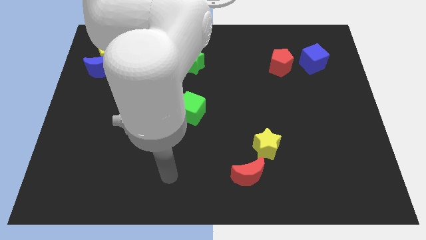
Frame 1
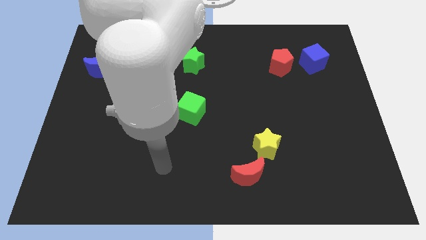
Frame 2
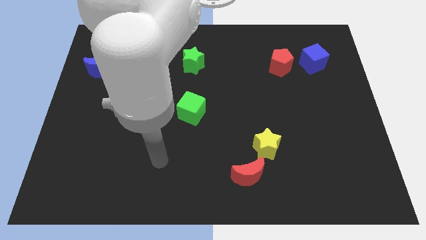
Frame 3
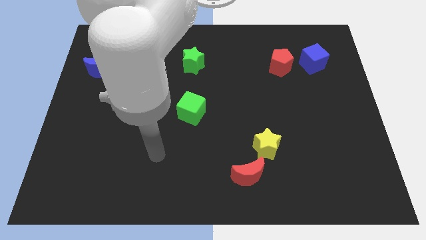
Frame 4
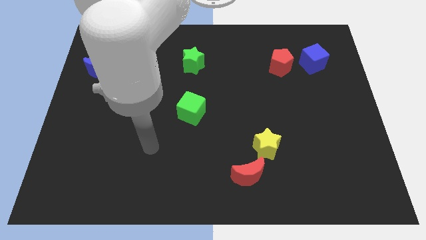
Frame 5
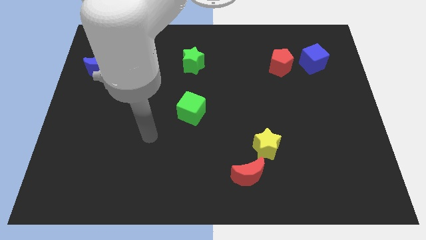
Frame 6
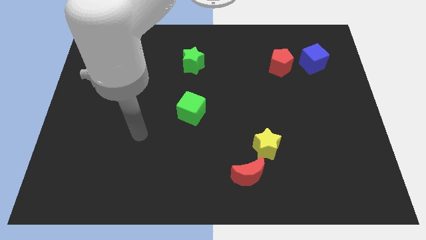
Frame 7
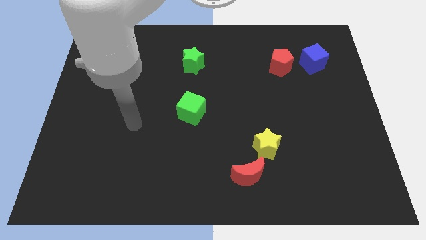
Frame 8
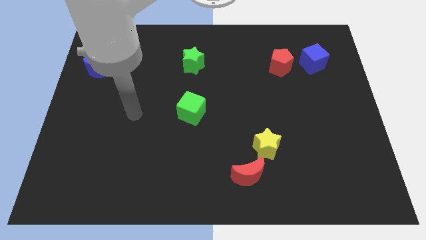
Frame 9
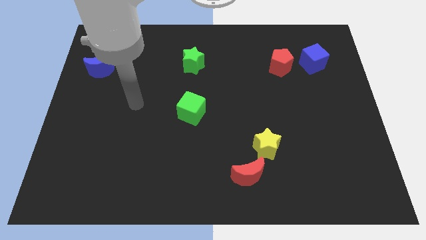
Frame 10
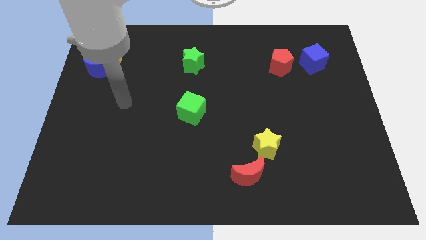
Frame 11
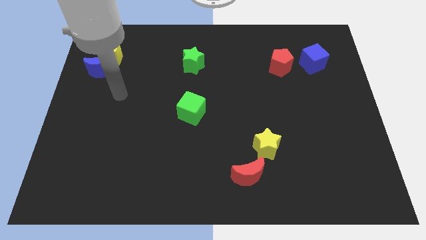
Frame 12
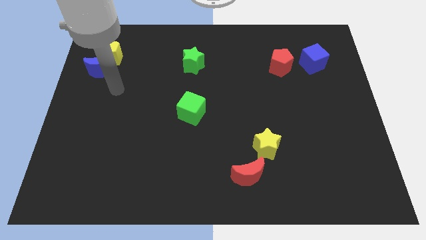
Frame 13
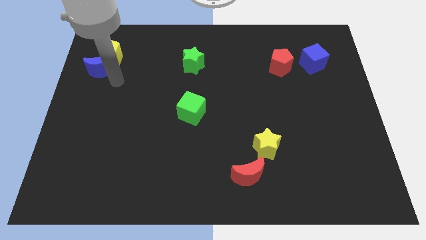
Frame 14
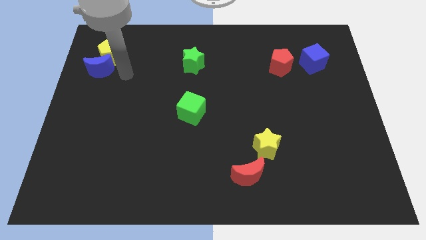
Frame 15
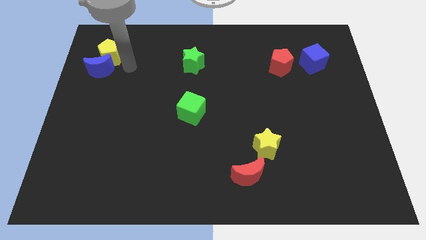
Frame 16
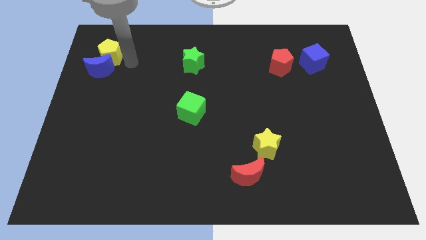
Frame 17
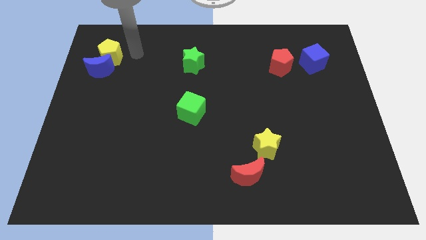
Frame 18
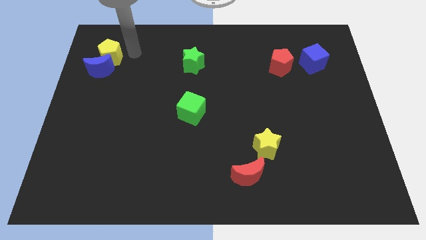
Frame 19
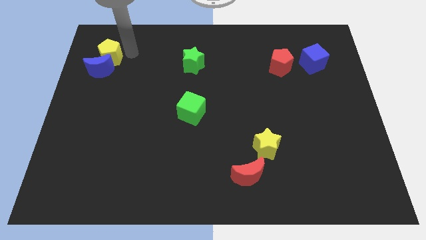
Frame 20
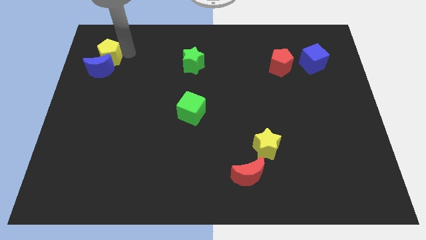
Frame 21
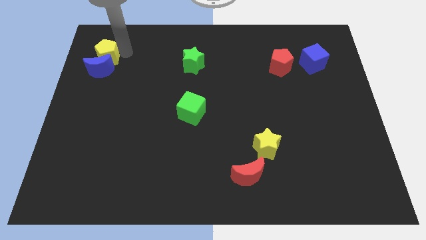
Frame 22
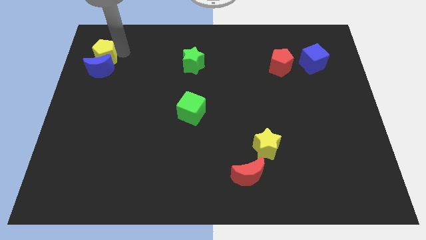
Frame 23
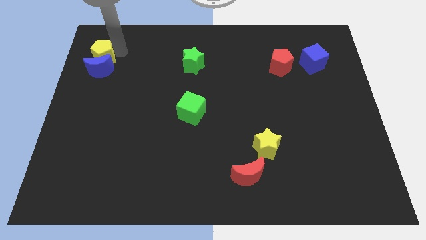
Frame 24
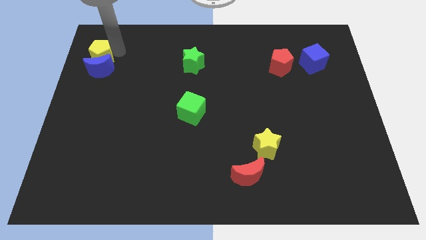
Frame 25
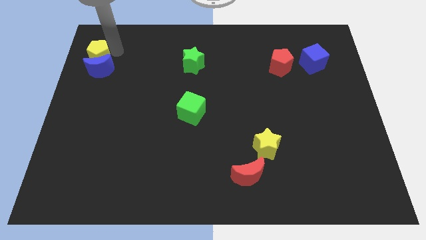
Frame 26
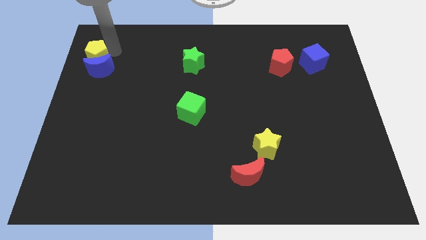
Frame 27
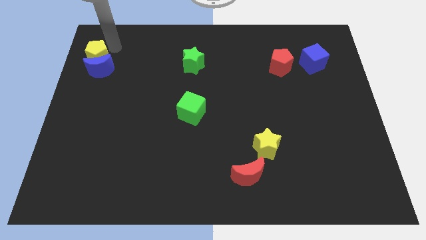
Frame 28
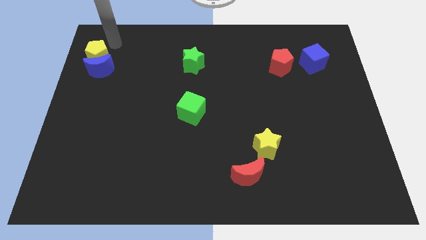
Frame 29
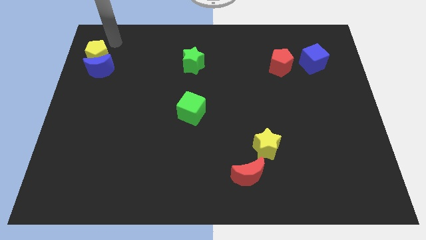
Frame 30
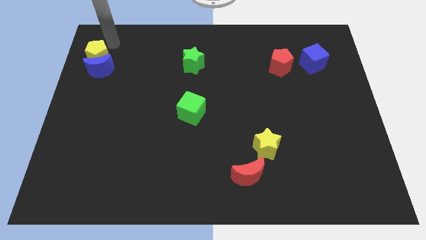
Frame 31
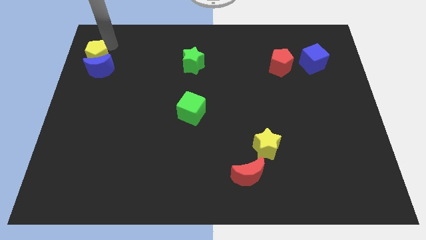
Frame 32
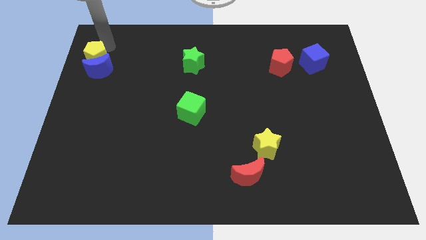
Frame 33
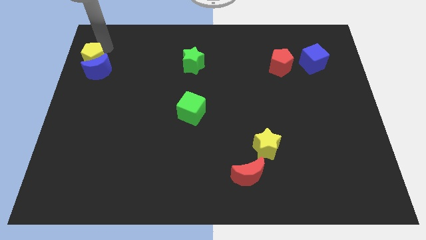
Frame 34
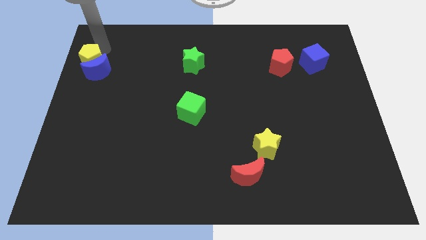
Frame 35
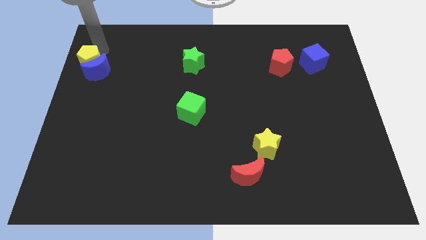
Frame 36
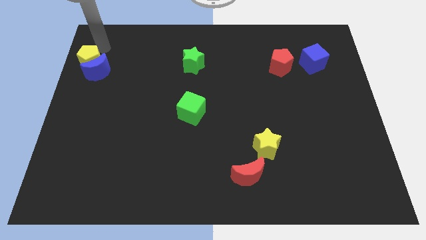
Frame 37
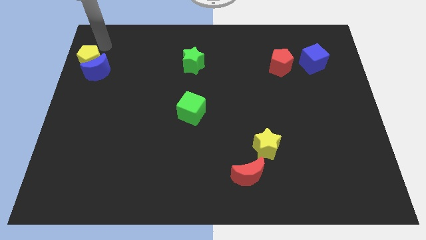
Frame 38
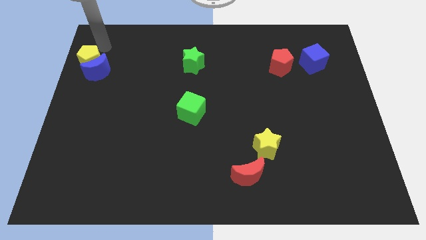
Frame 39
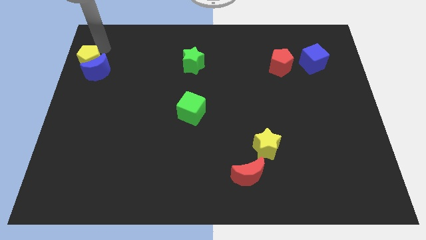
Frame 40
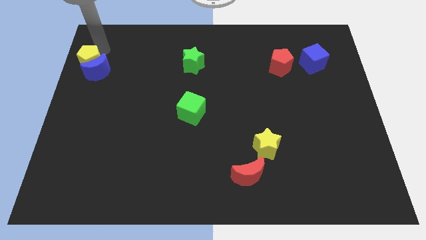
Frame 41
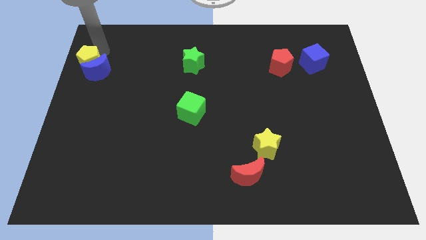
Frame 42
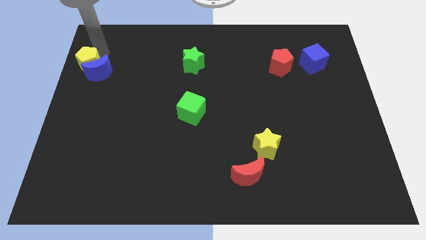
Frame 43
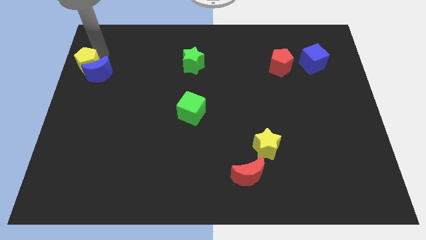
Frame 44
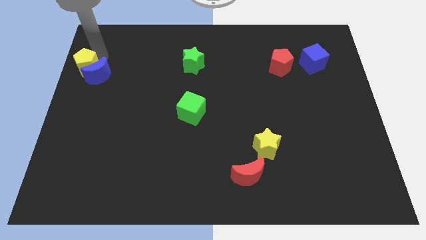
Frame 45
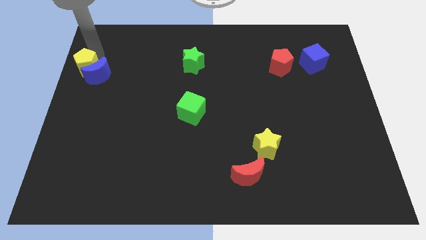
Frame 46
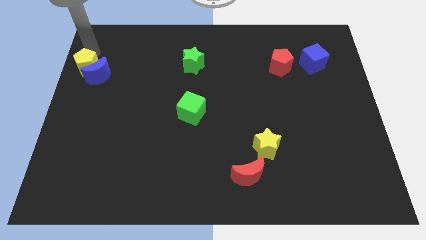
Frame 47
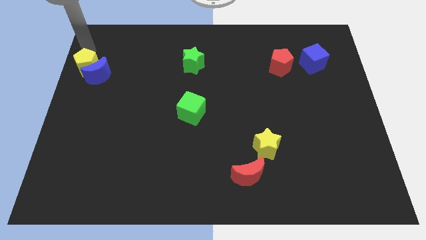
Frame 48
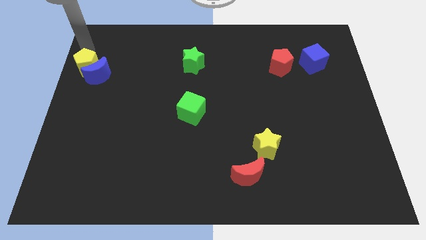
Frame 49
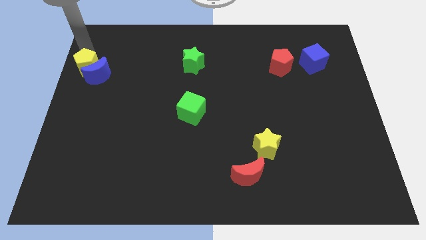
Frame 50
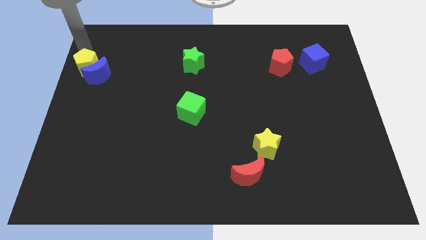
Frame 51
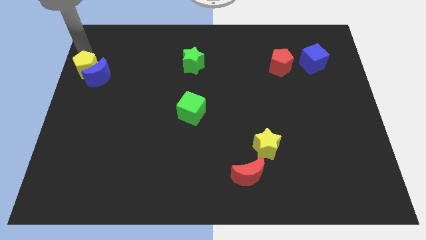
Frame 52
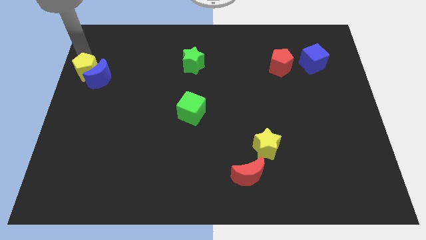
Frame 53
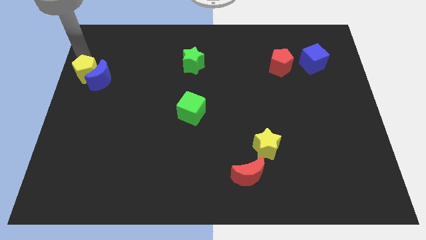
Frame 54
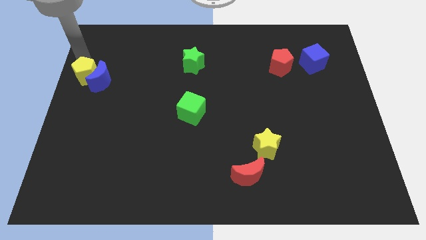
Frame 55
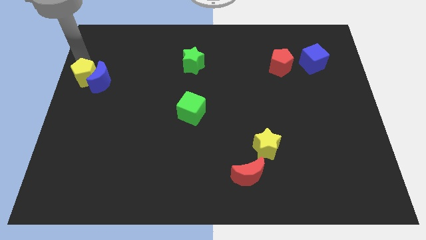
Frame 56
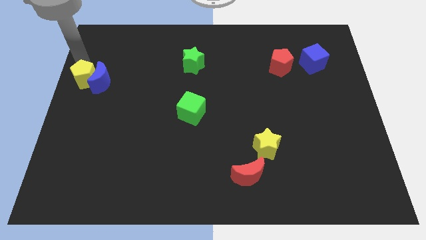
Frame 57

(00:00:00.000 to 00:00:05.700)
move the yellow pentagon a little downwards

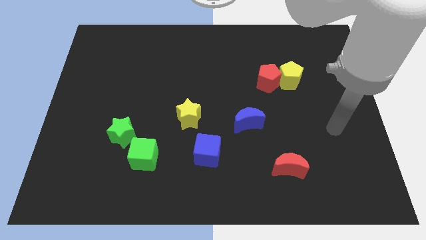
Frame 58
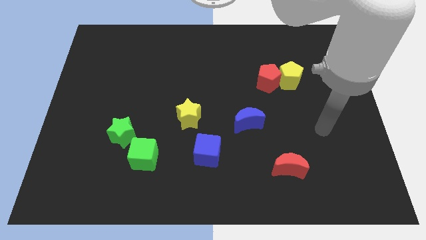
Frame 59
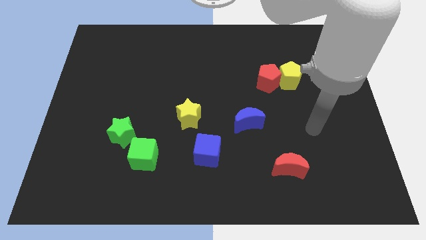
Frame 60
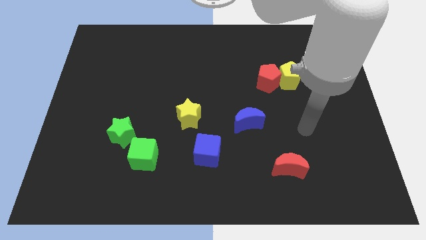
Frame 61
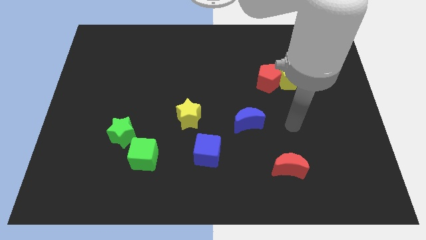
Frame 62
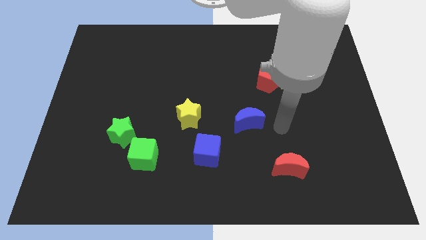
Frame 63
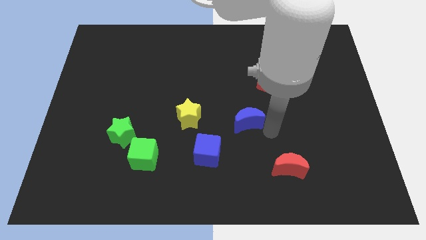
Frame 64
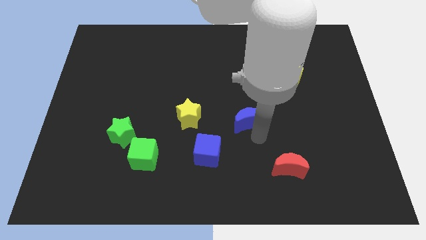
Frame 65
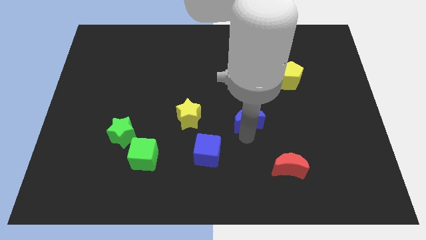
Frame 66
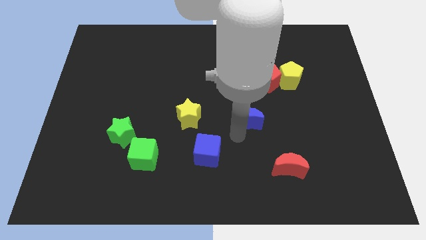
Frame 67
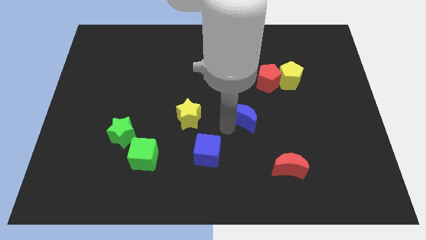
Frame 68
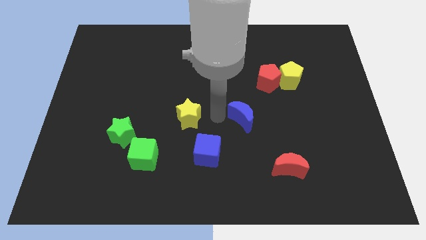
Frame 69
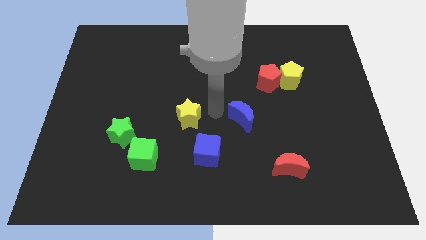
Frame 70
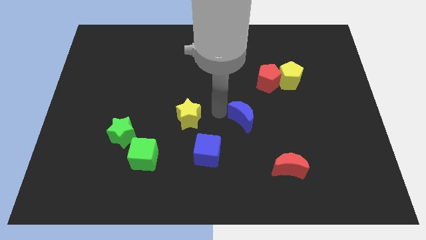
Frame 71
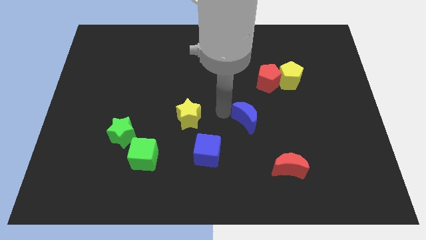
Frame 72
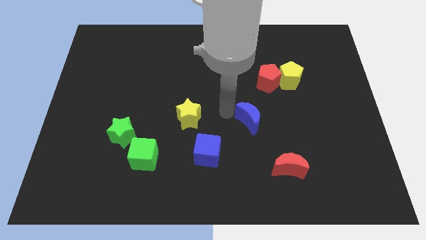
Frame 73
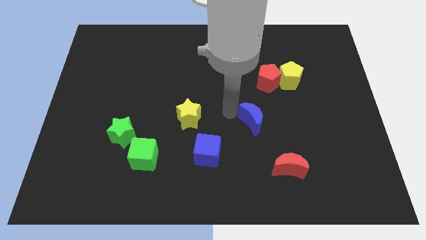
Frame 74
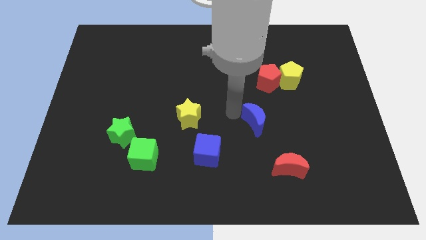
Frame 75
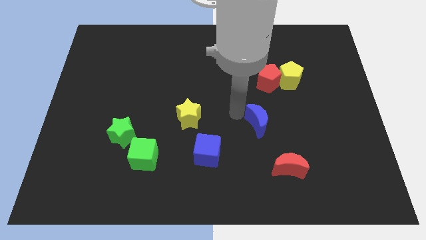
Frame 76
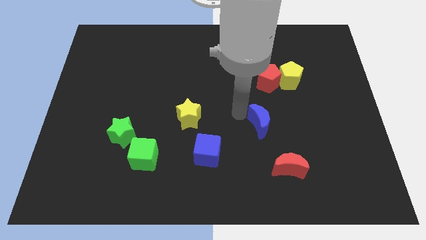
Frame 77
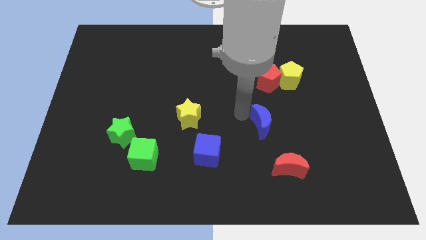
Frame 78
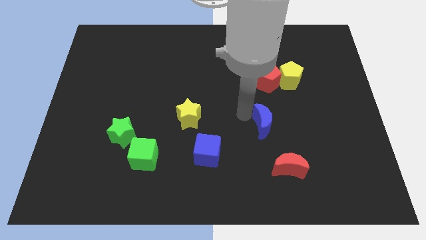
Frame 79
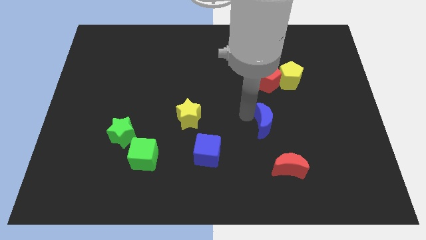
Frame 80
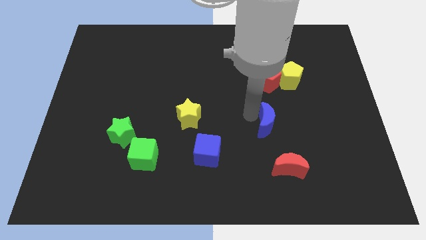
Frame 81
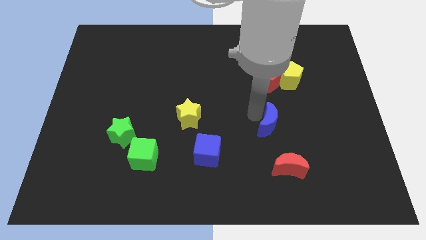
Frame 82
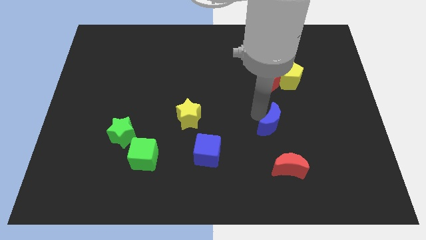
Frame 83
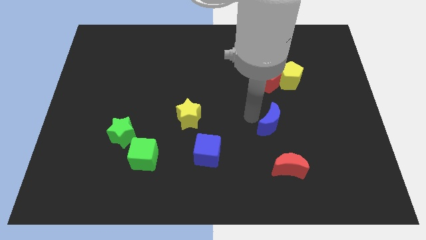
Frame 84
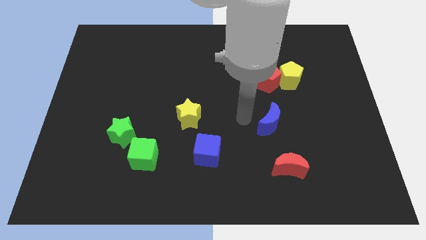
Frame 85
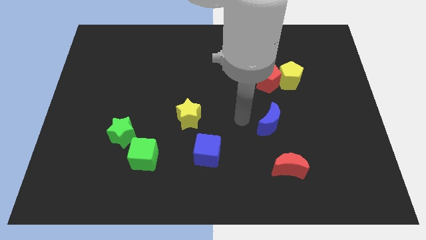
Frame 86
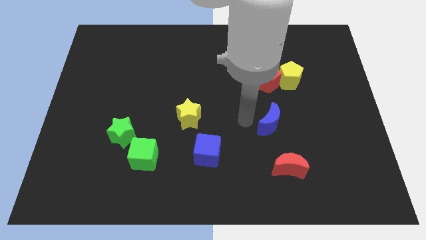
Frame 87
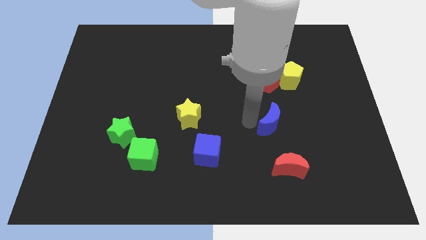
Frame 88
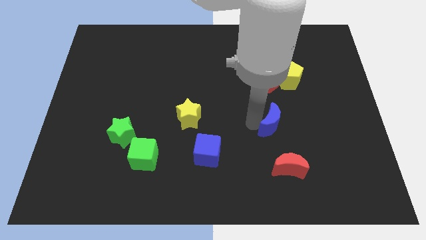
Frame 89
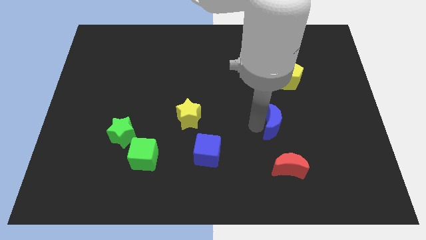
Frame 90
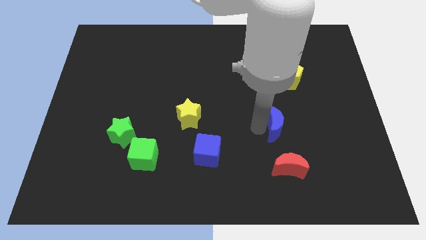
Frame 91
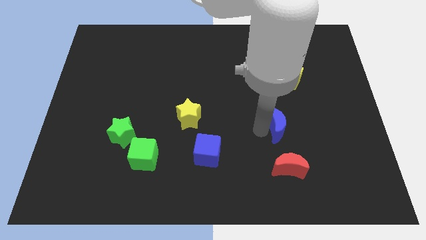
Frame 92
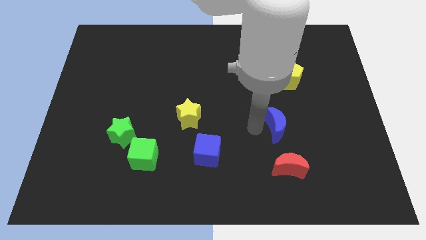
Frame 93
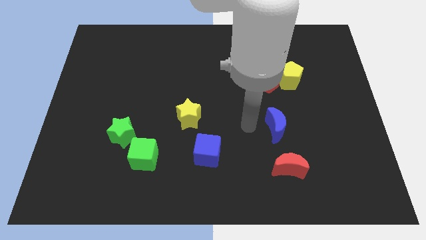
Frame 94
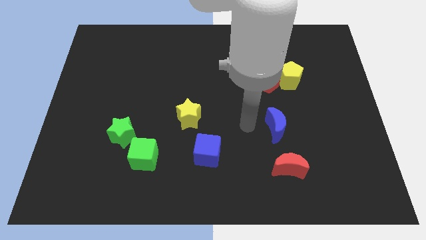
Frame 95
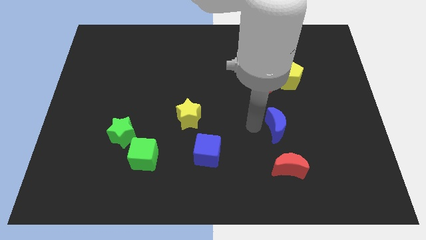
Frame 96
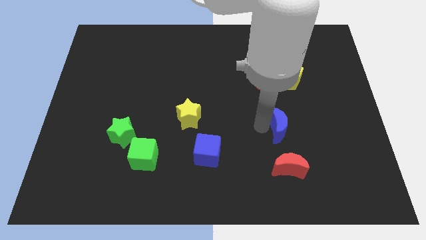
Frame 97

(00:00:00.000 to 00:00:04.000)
slightly push the blue moon to the right
